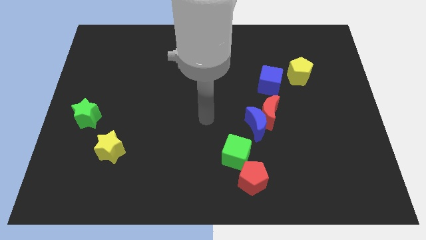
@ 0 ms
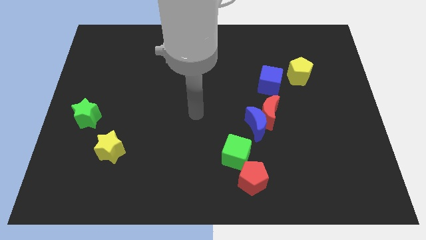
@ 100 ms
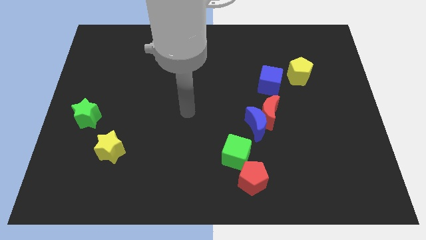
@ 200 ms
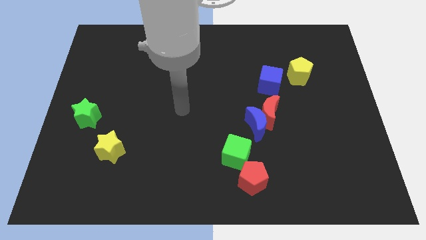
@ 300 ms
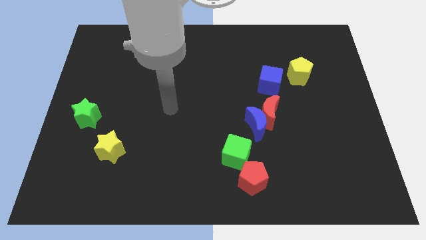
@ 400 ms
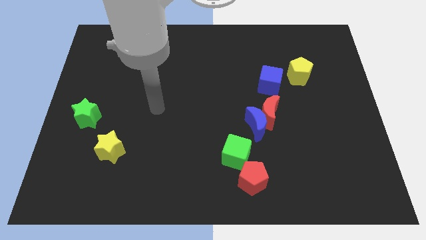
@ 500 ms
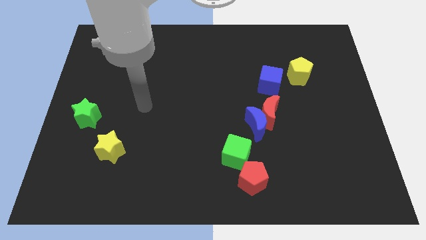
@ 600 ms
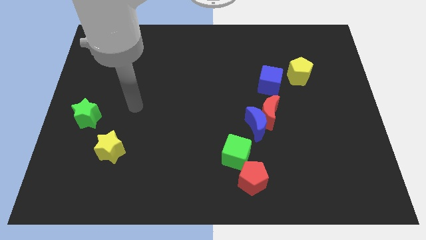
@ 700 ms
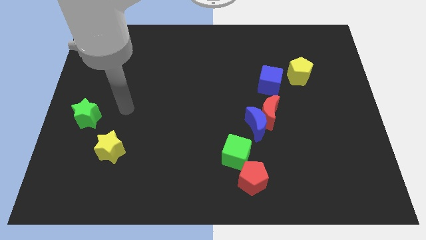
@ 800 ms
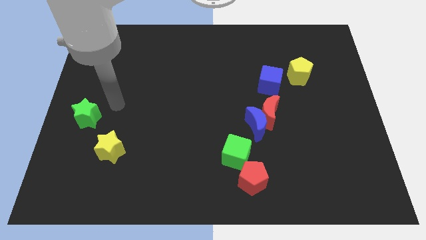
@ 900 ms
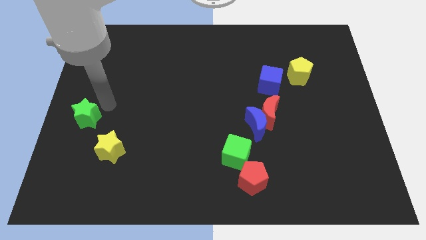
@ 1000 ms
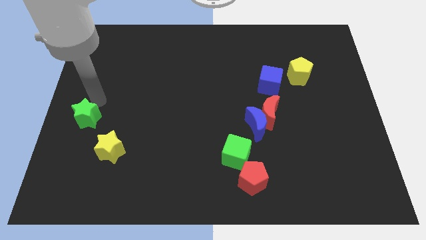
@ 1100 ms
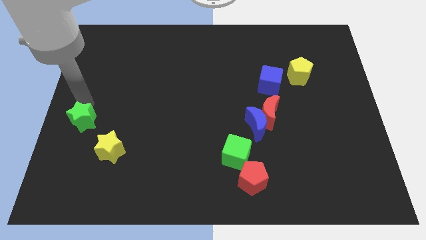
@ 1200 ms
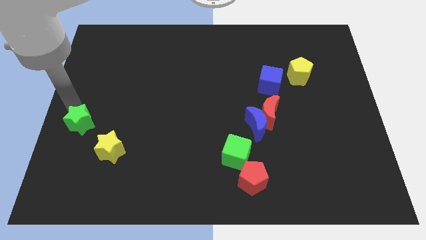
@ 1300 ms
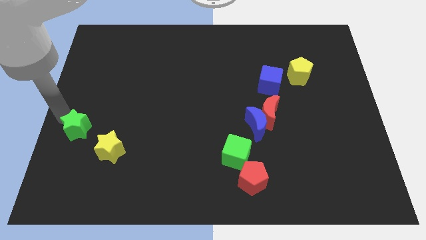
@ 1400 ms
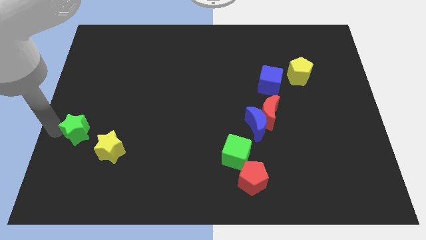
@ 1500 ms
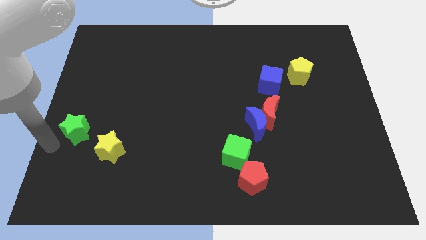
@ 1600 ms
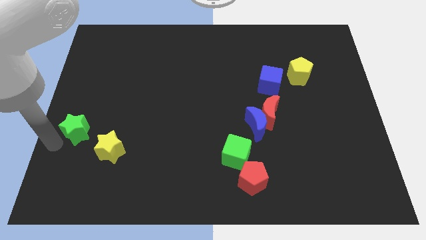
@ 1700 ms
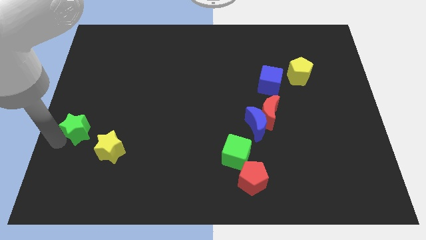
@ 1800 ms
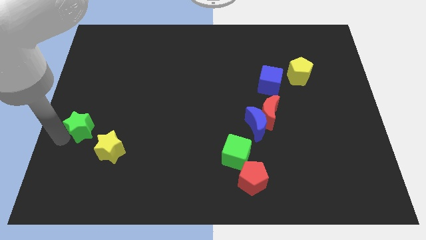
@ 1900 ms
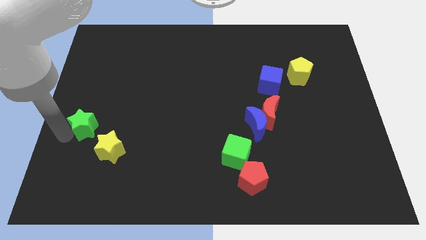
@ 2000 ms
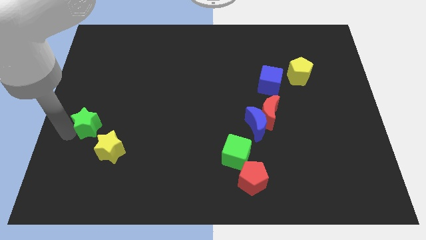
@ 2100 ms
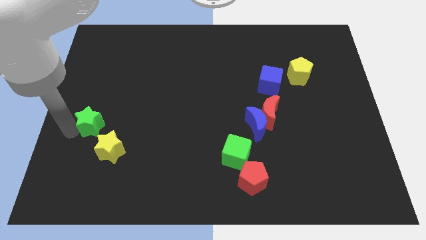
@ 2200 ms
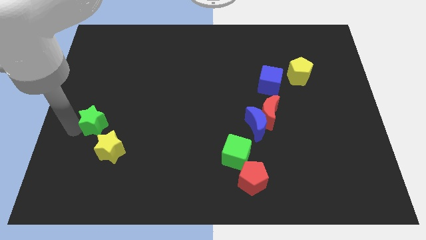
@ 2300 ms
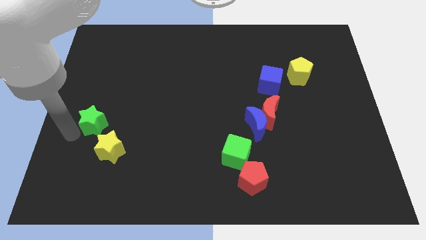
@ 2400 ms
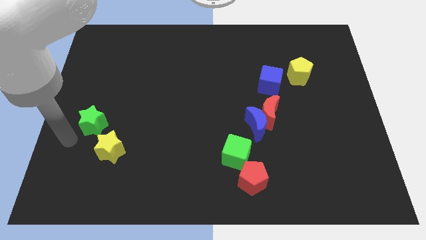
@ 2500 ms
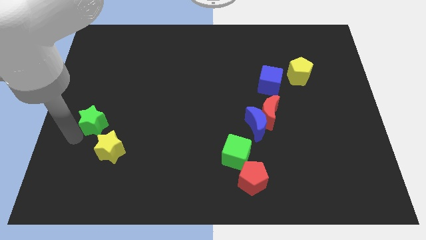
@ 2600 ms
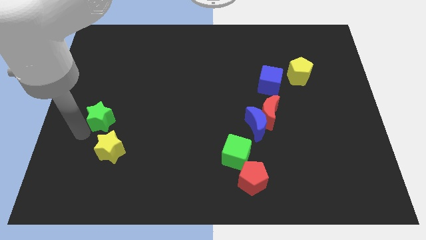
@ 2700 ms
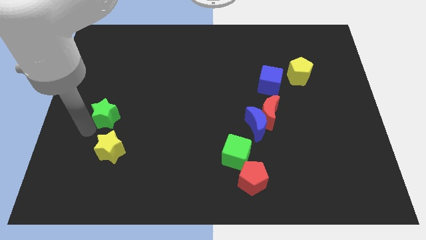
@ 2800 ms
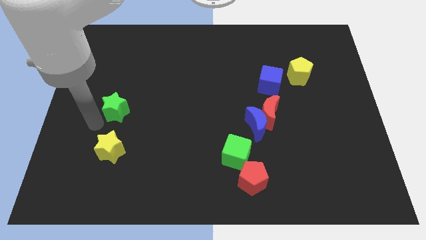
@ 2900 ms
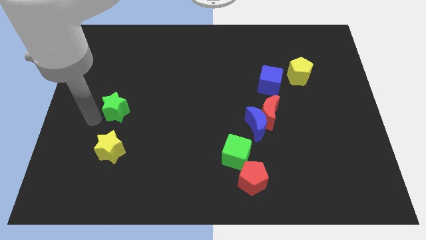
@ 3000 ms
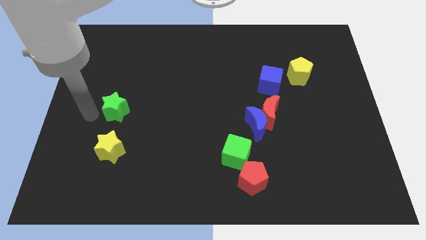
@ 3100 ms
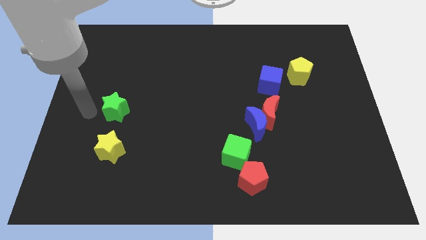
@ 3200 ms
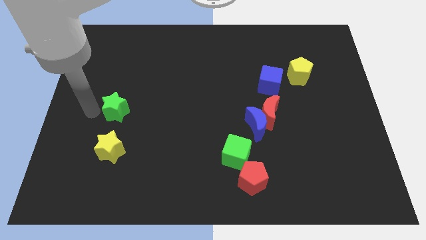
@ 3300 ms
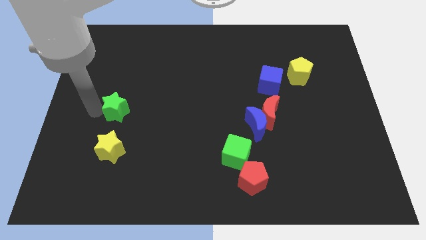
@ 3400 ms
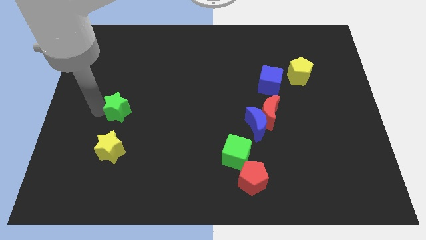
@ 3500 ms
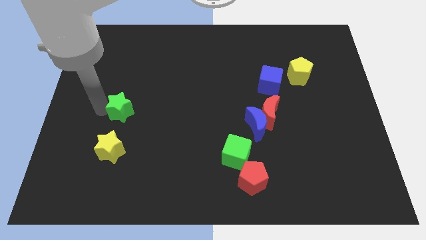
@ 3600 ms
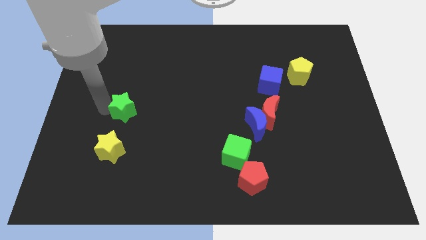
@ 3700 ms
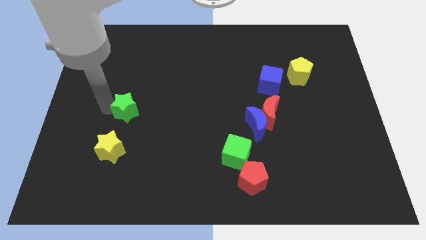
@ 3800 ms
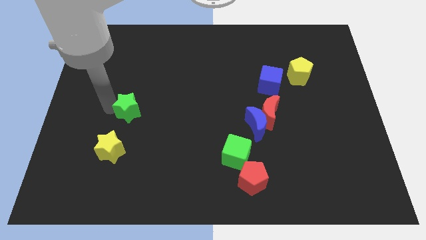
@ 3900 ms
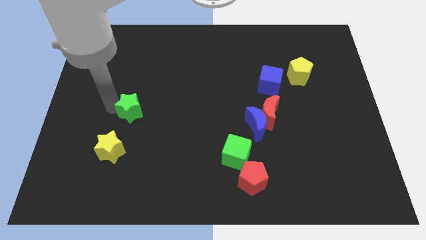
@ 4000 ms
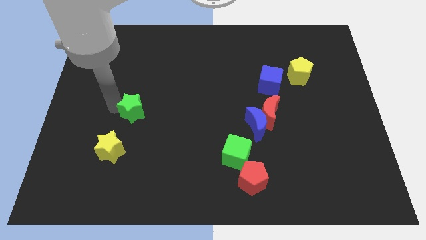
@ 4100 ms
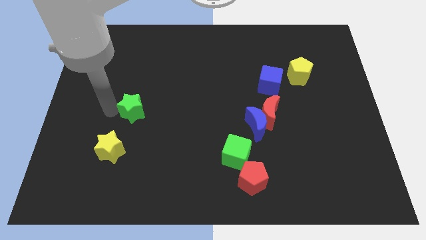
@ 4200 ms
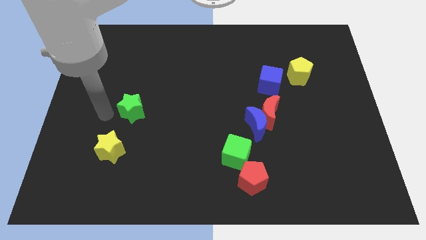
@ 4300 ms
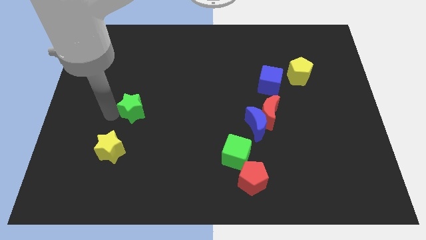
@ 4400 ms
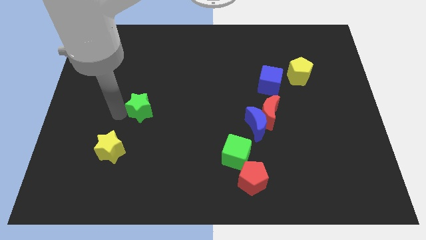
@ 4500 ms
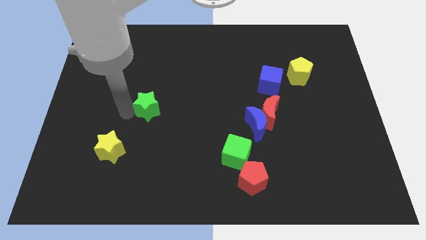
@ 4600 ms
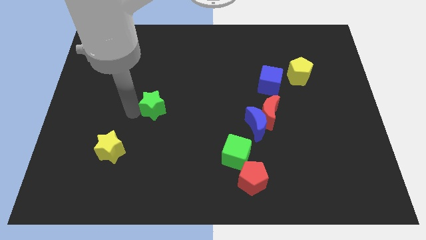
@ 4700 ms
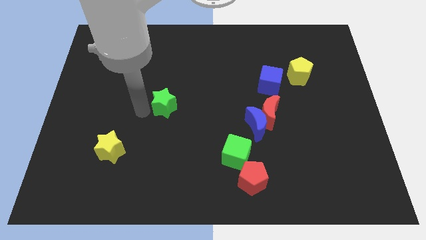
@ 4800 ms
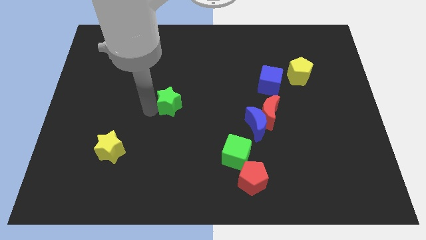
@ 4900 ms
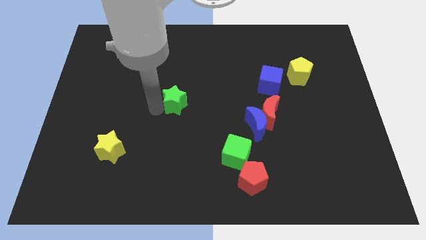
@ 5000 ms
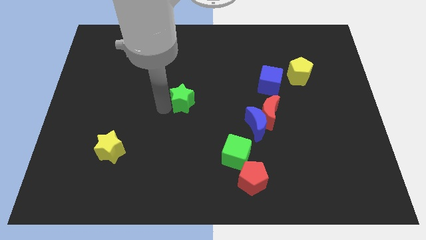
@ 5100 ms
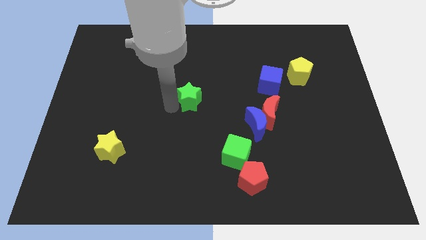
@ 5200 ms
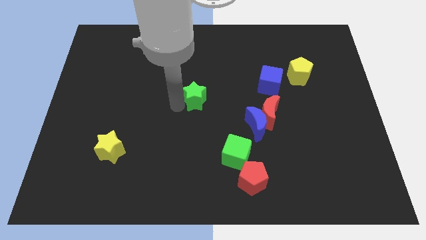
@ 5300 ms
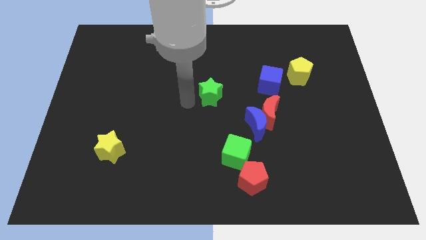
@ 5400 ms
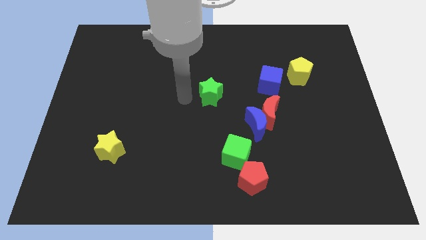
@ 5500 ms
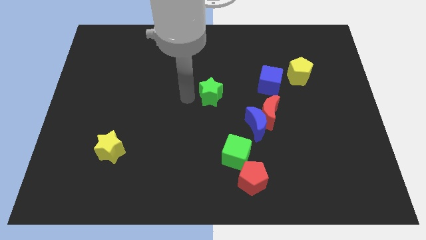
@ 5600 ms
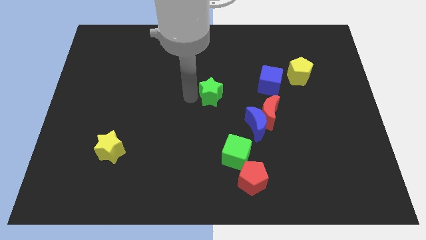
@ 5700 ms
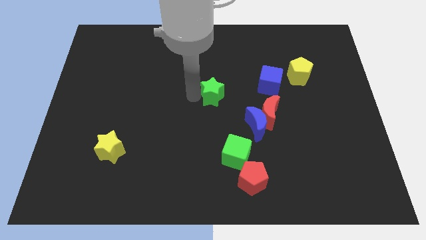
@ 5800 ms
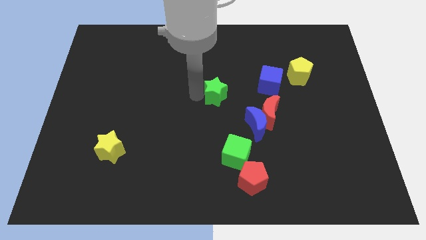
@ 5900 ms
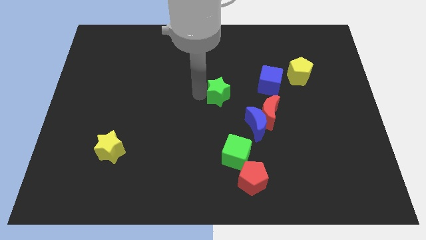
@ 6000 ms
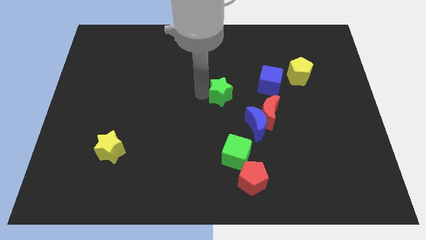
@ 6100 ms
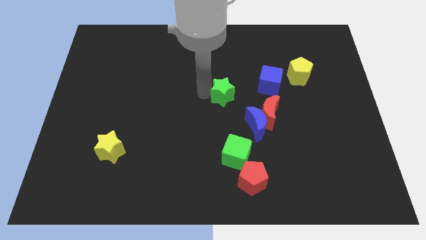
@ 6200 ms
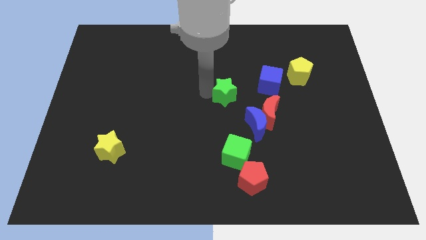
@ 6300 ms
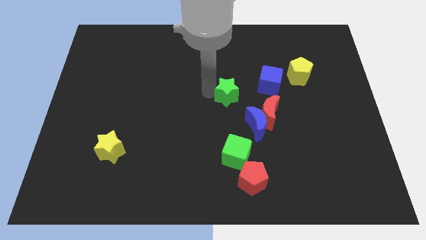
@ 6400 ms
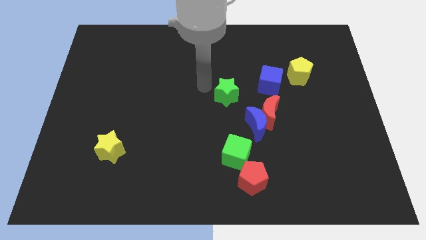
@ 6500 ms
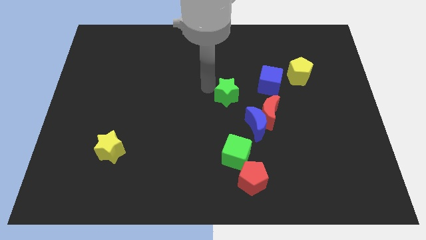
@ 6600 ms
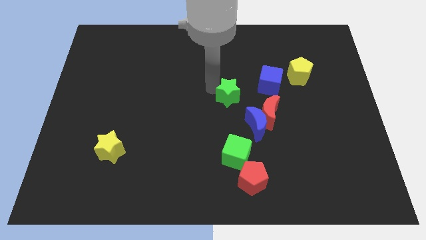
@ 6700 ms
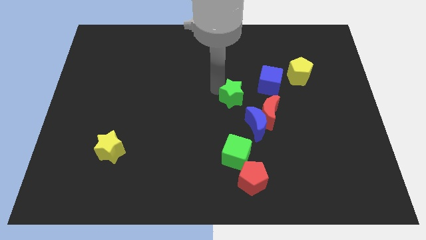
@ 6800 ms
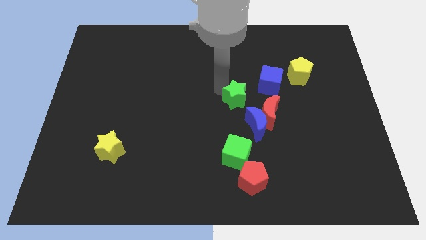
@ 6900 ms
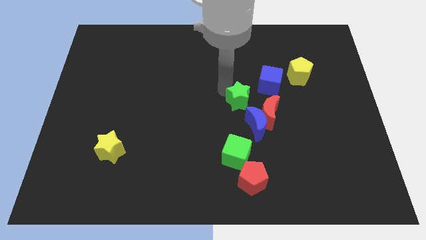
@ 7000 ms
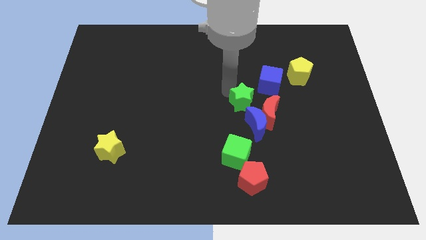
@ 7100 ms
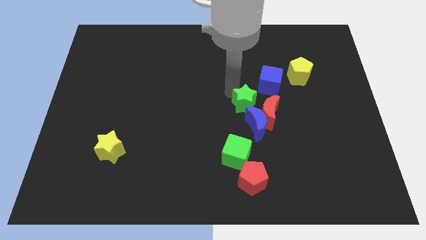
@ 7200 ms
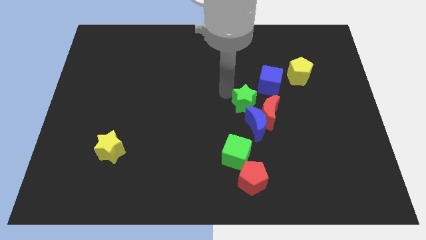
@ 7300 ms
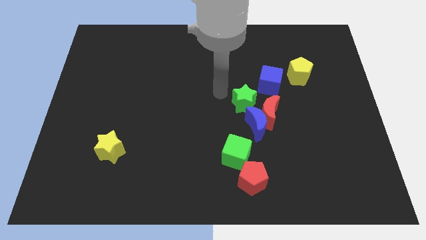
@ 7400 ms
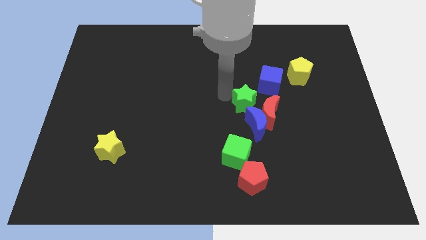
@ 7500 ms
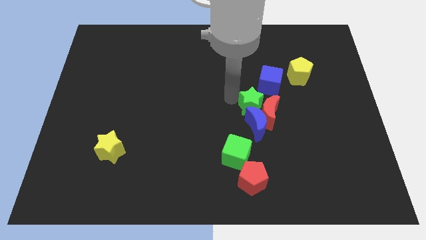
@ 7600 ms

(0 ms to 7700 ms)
move the green star to the red moon

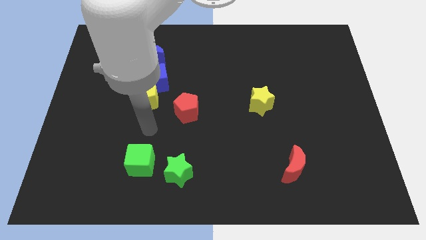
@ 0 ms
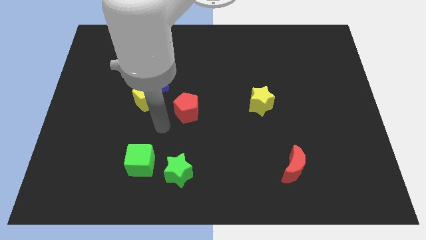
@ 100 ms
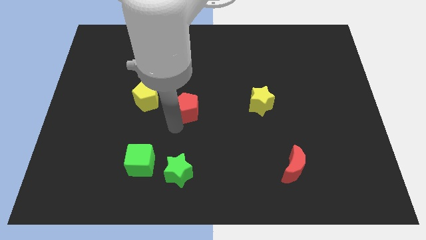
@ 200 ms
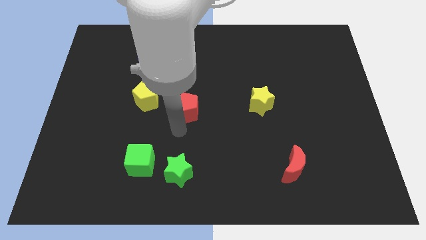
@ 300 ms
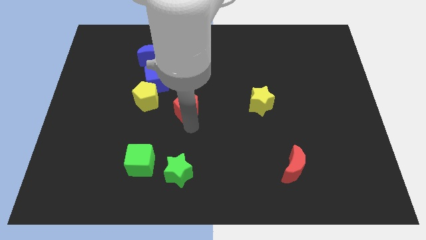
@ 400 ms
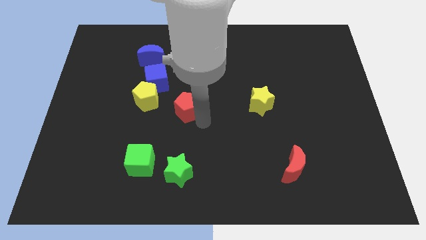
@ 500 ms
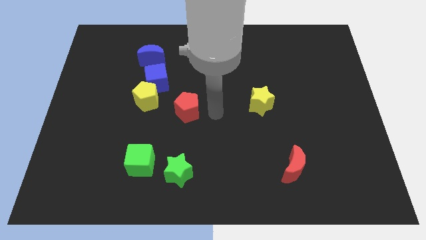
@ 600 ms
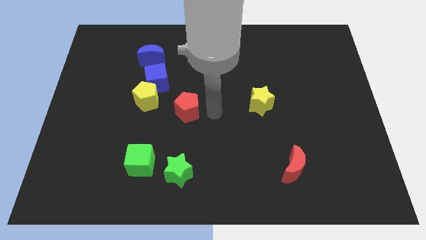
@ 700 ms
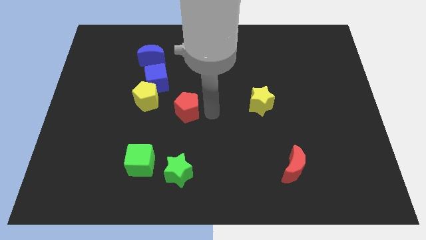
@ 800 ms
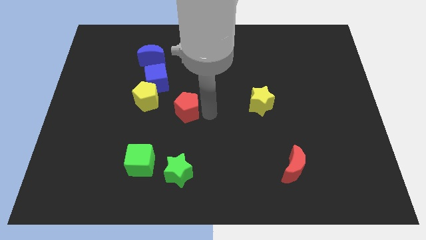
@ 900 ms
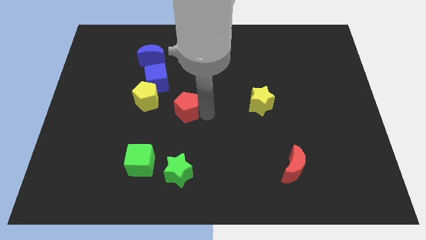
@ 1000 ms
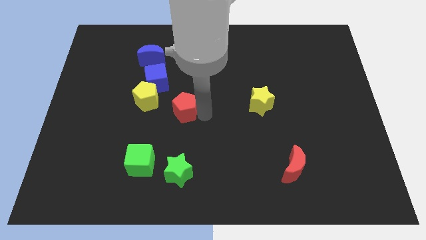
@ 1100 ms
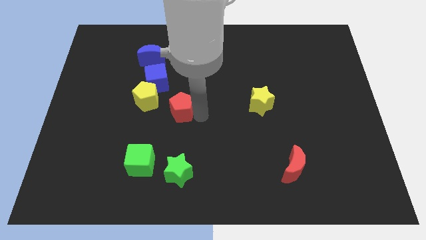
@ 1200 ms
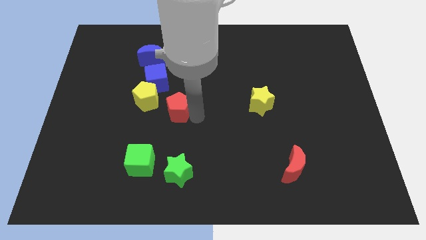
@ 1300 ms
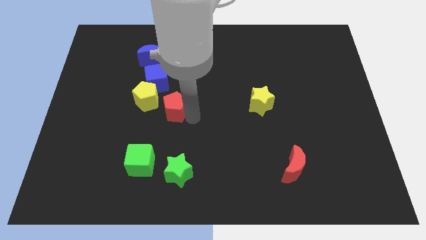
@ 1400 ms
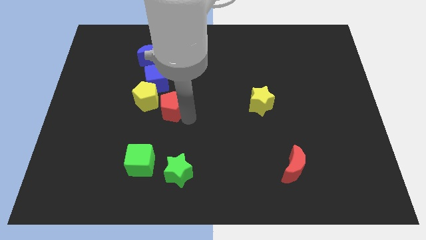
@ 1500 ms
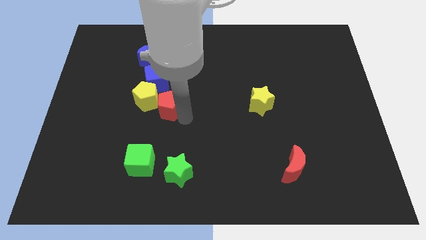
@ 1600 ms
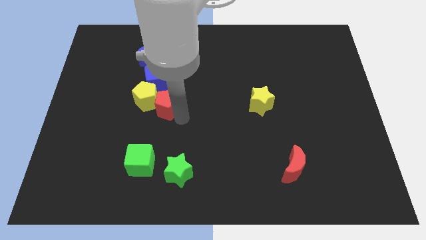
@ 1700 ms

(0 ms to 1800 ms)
move the red pentagon next to the yellow pentagon
